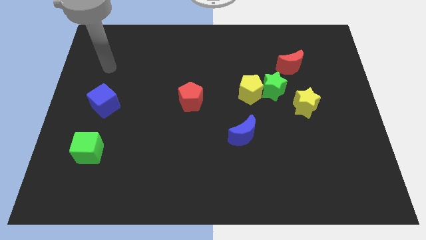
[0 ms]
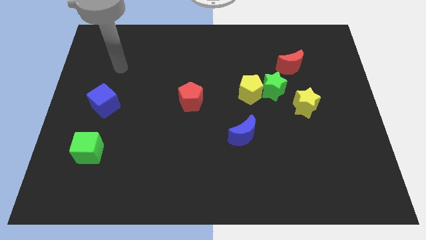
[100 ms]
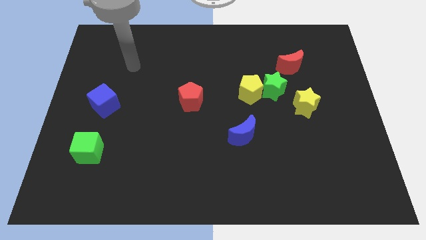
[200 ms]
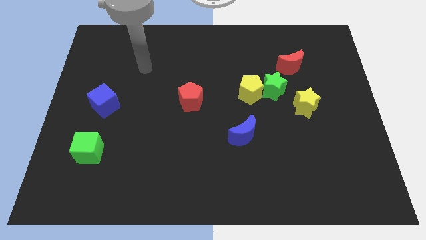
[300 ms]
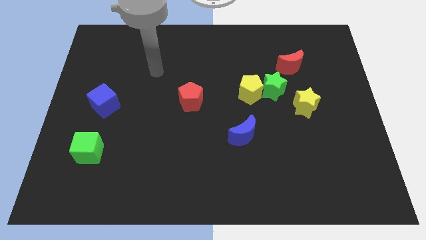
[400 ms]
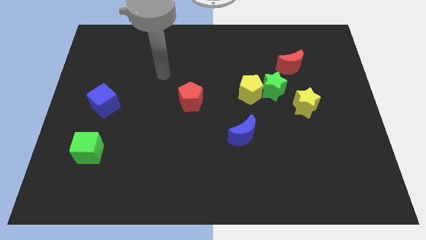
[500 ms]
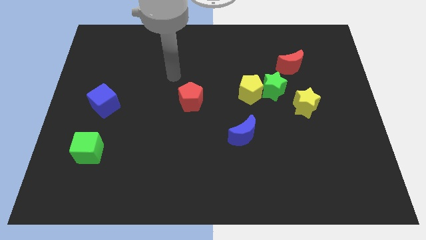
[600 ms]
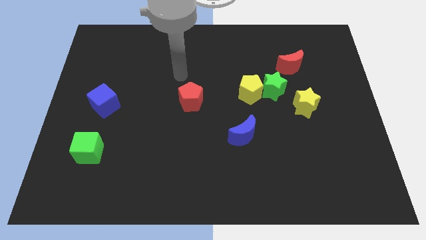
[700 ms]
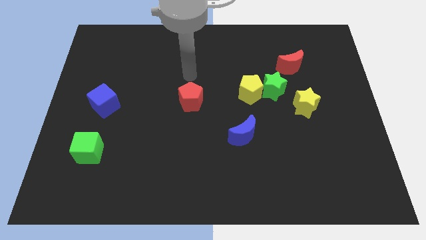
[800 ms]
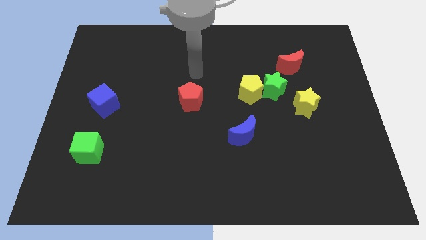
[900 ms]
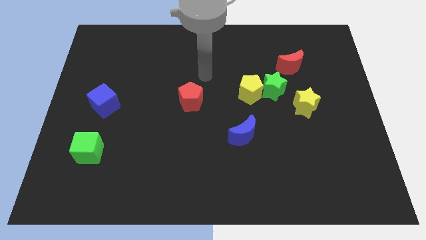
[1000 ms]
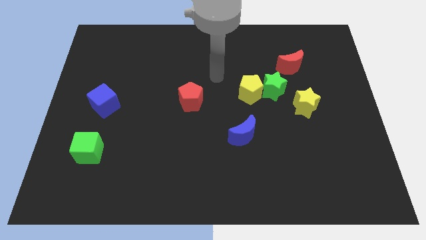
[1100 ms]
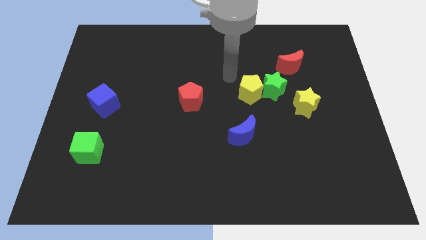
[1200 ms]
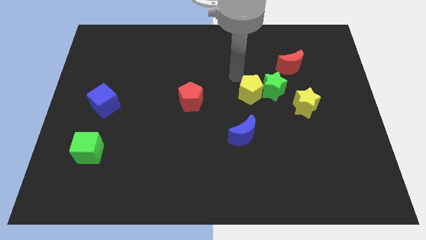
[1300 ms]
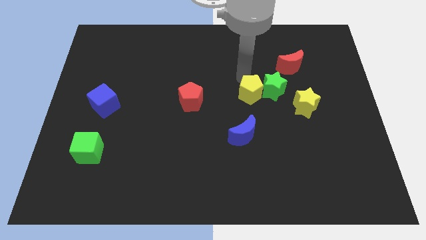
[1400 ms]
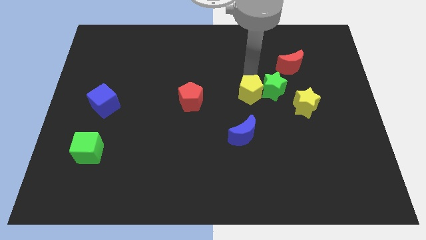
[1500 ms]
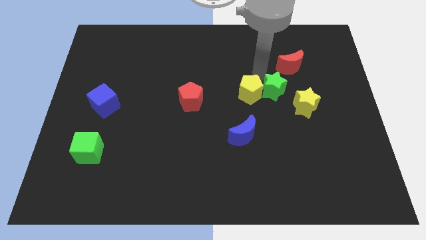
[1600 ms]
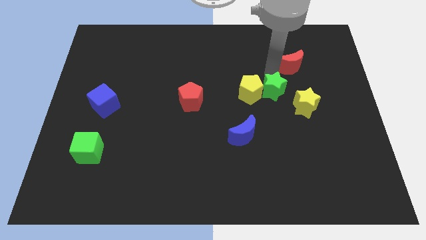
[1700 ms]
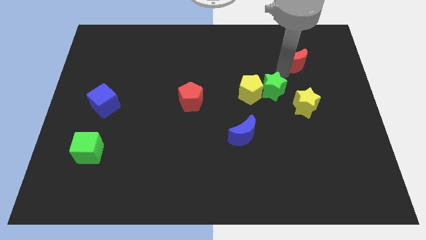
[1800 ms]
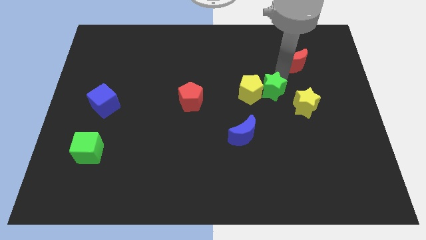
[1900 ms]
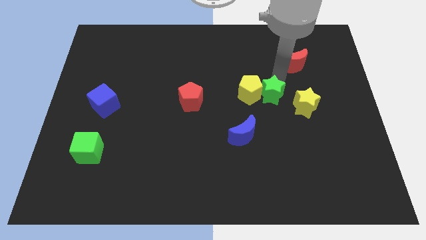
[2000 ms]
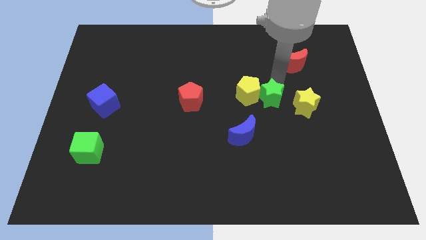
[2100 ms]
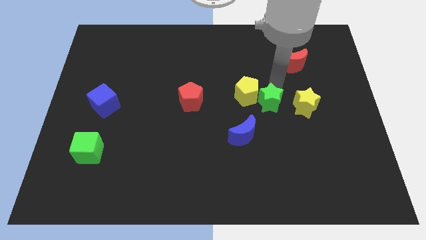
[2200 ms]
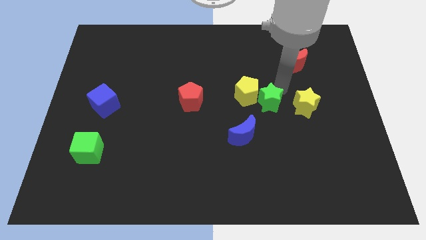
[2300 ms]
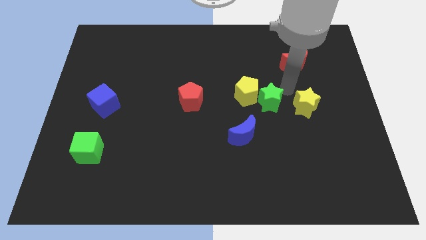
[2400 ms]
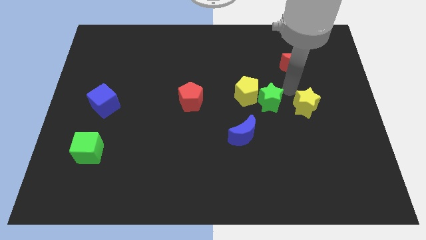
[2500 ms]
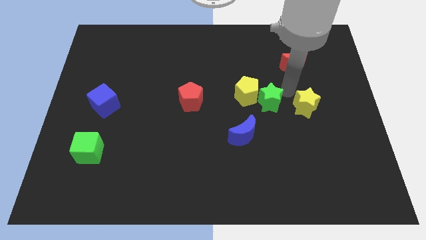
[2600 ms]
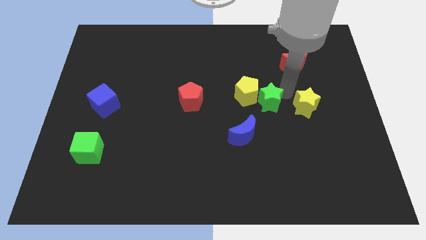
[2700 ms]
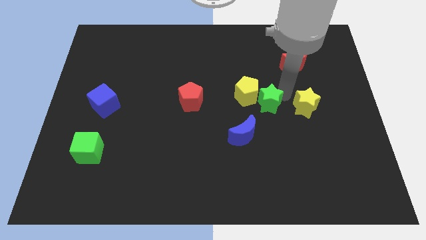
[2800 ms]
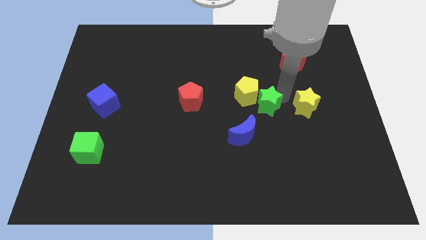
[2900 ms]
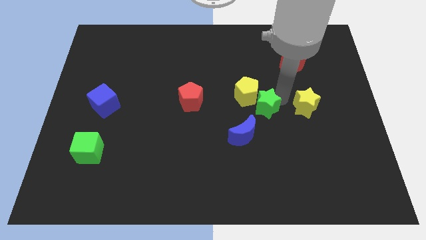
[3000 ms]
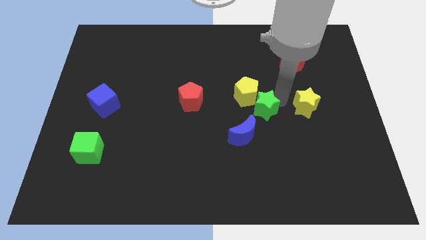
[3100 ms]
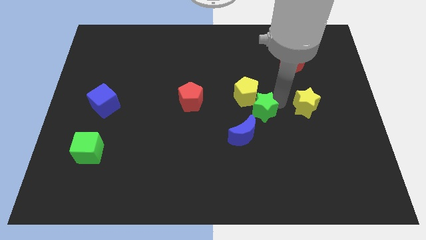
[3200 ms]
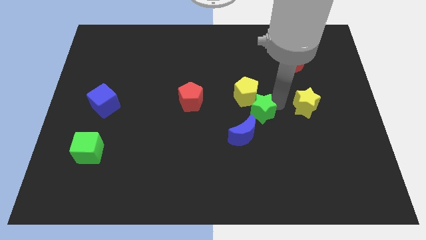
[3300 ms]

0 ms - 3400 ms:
slide the green star a bit down and left diagonally

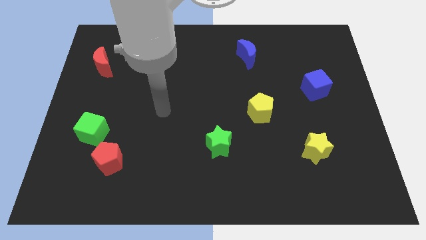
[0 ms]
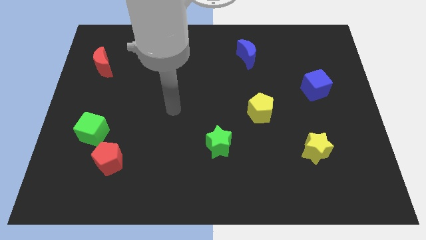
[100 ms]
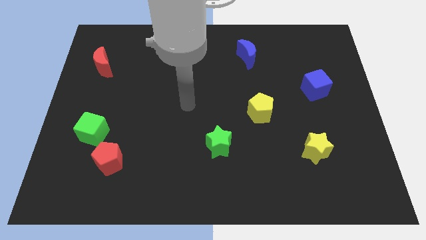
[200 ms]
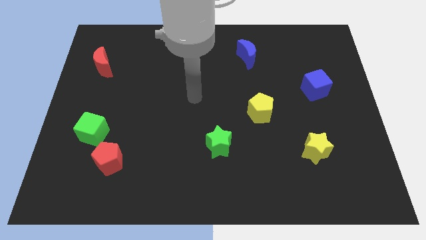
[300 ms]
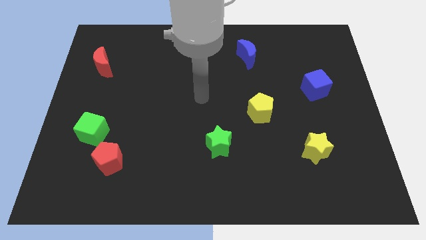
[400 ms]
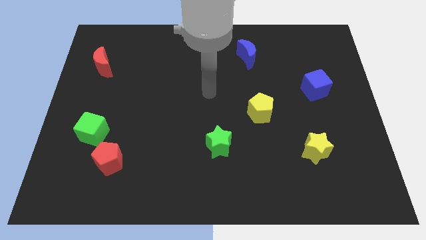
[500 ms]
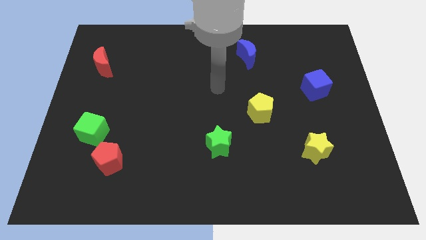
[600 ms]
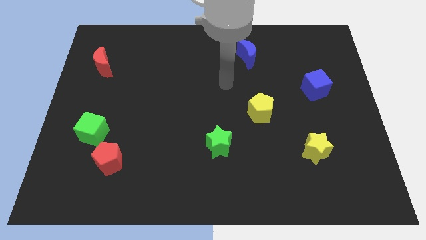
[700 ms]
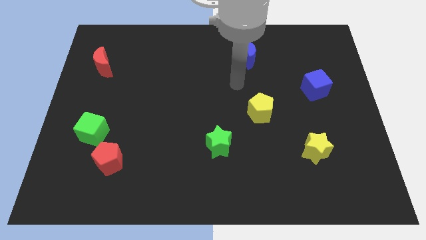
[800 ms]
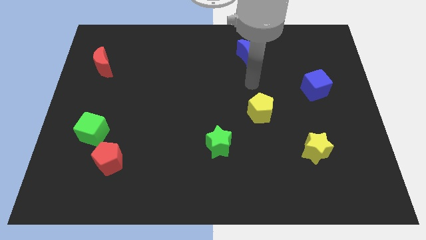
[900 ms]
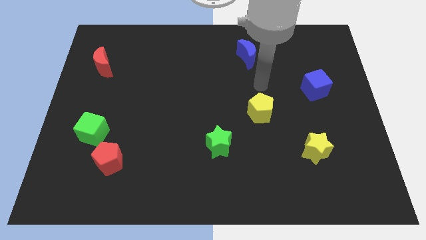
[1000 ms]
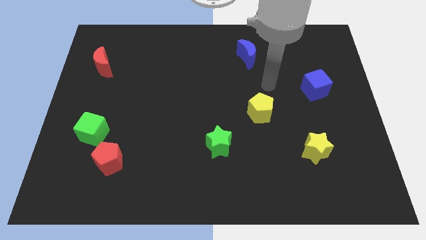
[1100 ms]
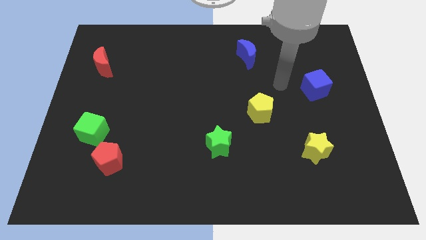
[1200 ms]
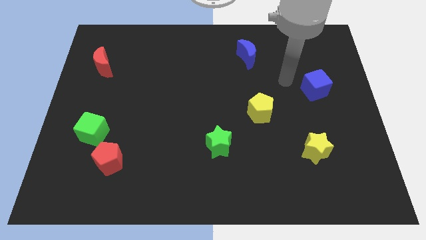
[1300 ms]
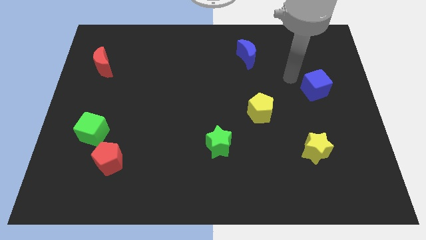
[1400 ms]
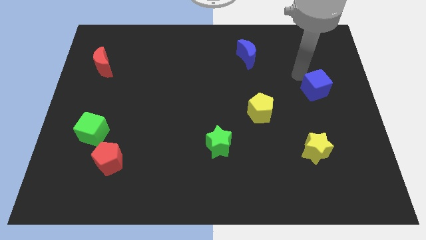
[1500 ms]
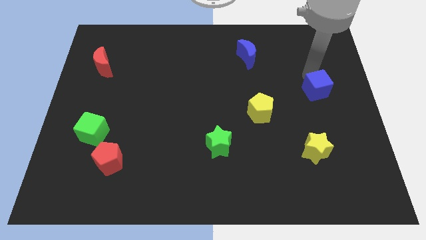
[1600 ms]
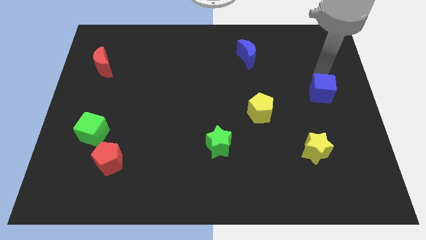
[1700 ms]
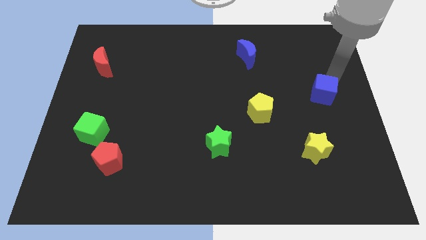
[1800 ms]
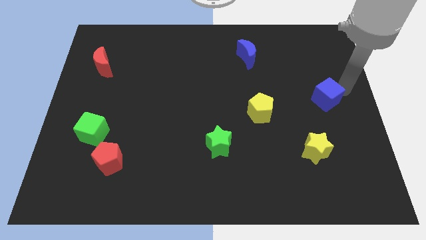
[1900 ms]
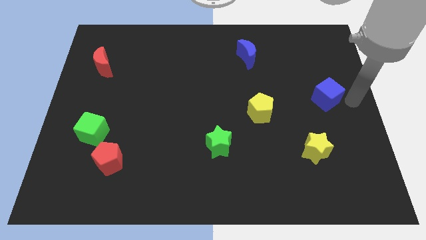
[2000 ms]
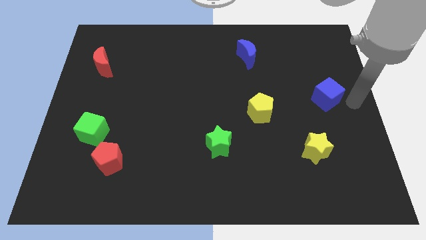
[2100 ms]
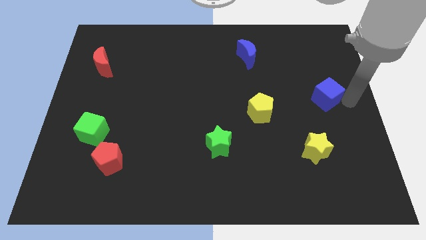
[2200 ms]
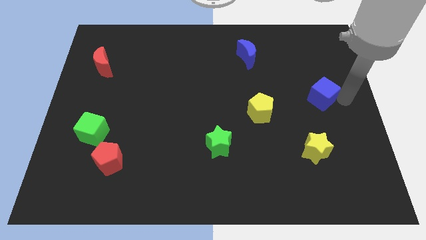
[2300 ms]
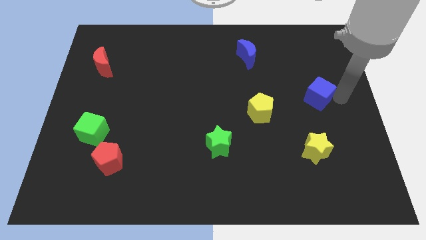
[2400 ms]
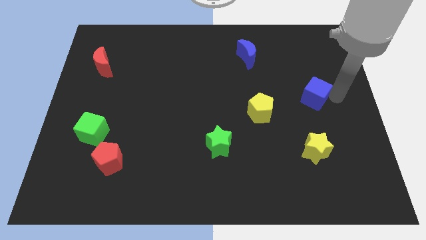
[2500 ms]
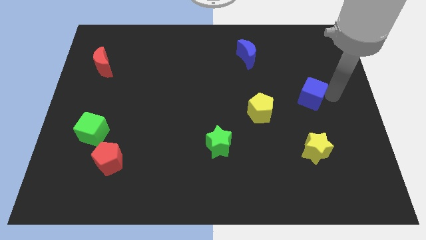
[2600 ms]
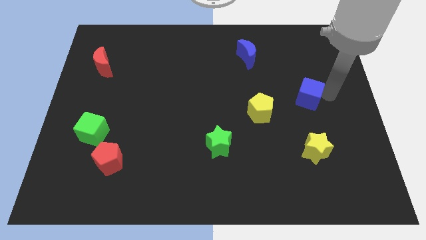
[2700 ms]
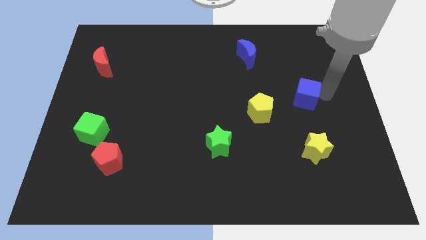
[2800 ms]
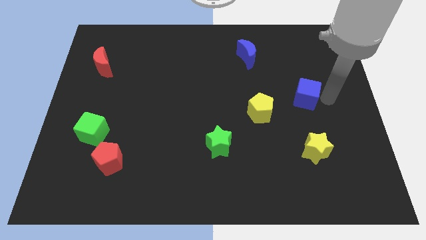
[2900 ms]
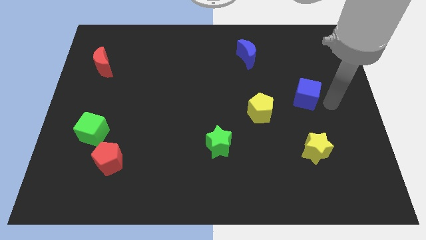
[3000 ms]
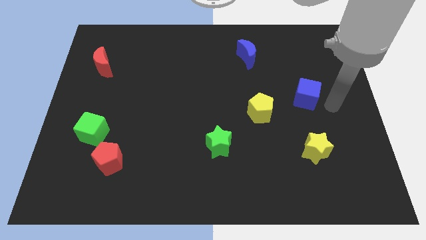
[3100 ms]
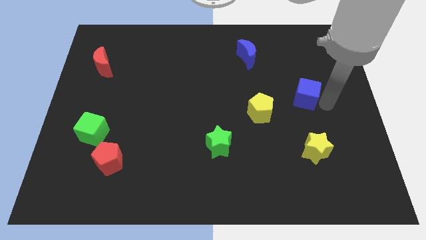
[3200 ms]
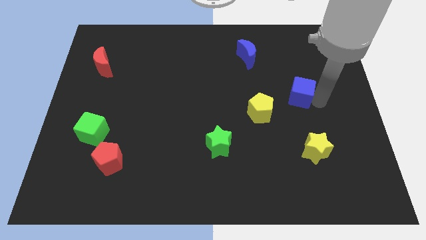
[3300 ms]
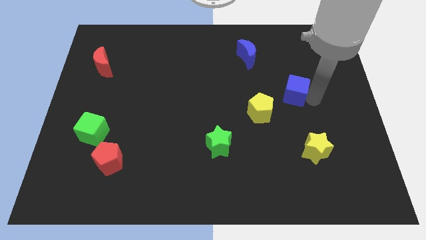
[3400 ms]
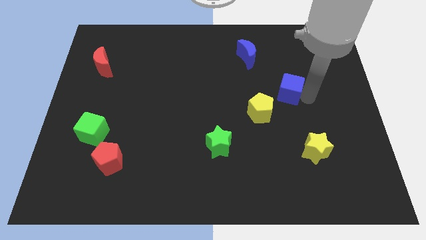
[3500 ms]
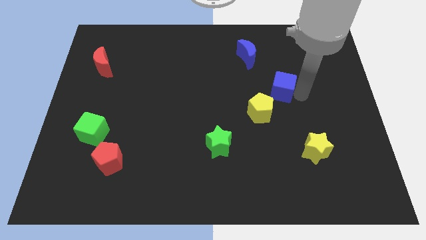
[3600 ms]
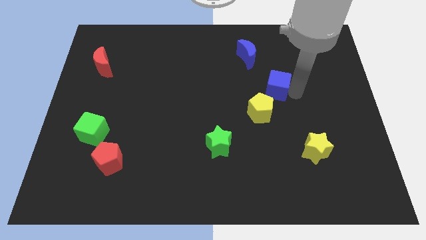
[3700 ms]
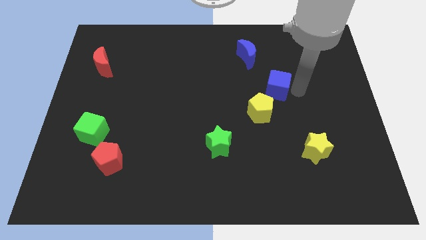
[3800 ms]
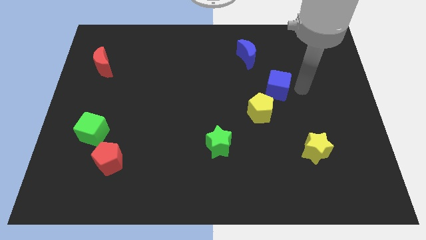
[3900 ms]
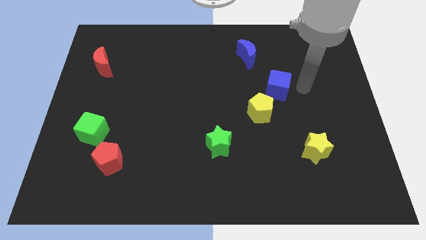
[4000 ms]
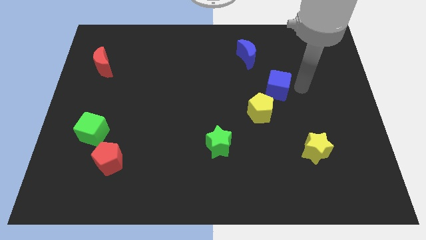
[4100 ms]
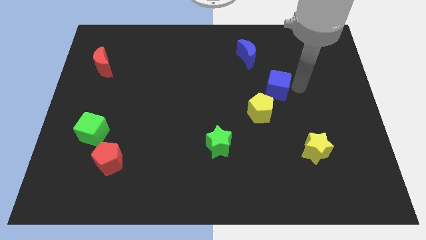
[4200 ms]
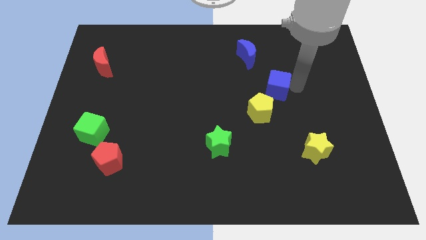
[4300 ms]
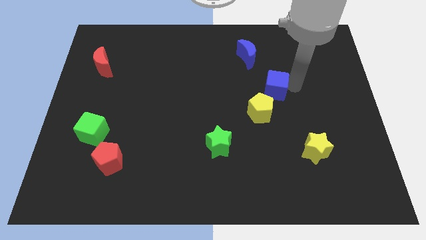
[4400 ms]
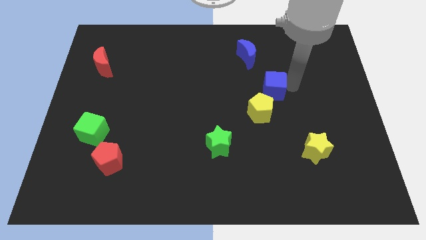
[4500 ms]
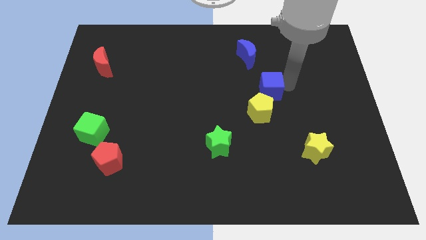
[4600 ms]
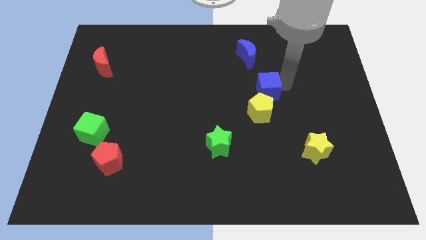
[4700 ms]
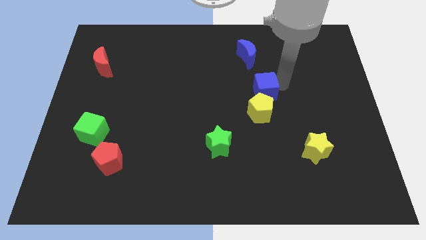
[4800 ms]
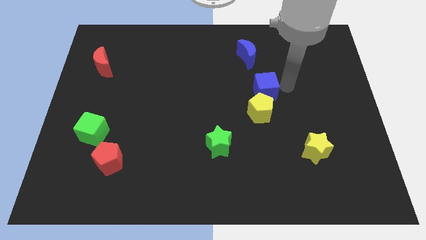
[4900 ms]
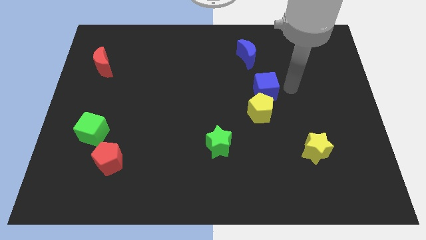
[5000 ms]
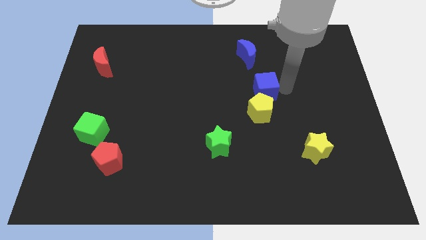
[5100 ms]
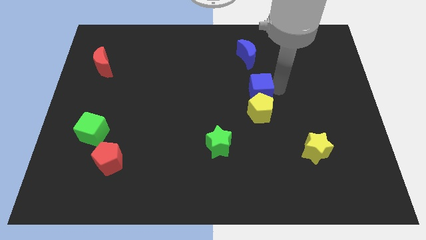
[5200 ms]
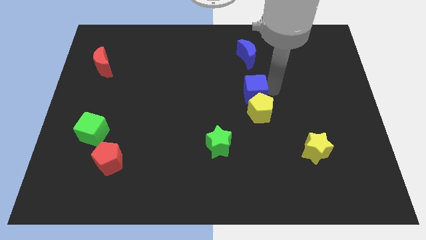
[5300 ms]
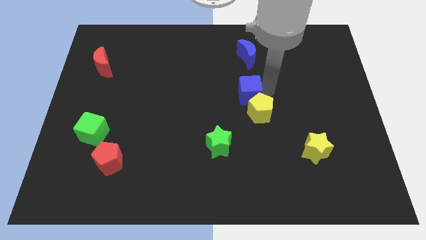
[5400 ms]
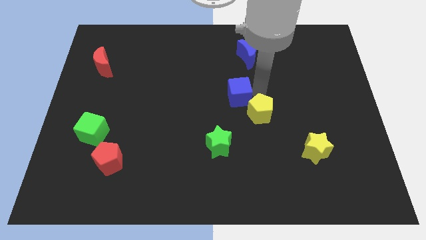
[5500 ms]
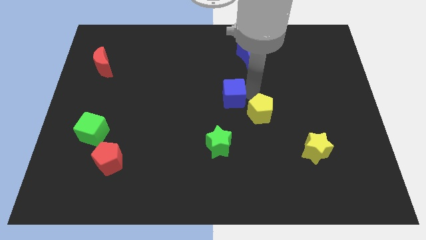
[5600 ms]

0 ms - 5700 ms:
slide the blue cube to the left
